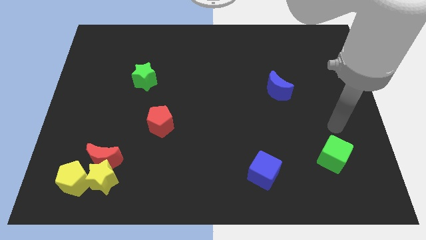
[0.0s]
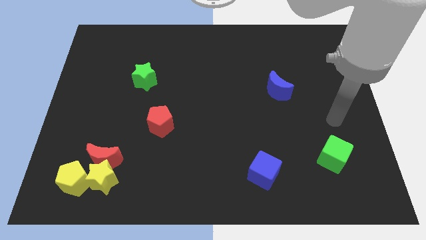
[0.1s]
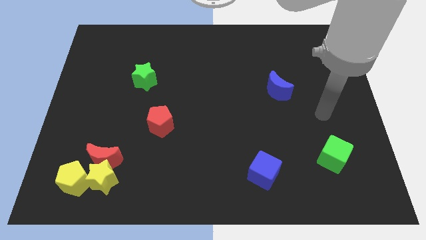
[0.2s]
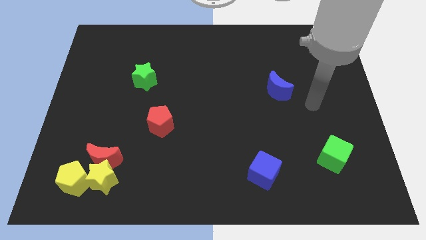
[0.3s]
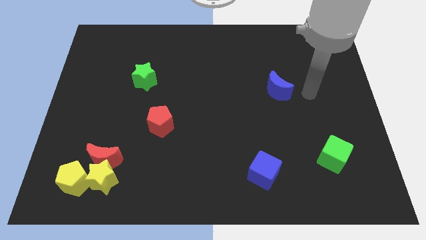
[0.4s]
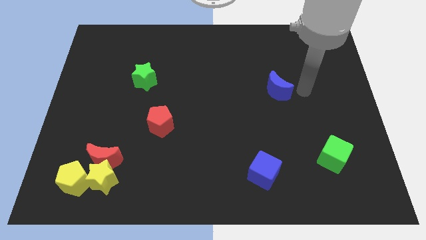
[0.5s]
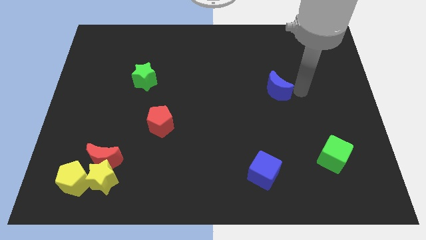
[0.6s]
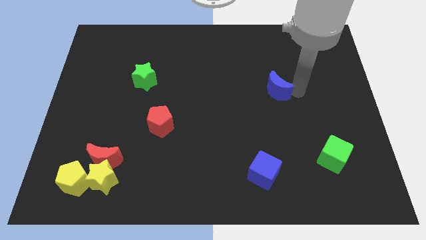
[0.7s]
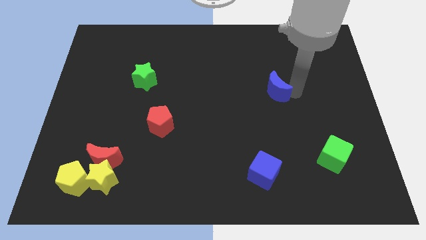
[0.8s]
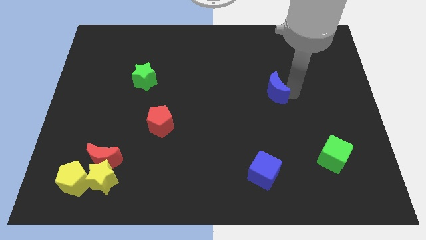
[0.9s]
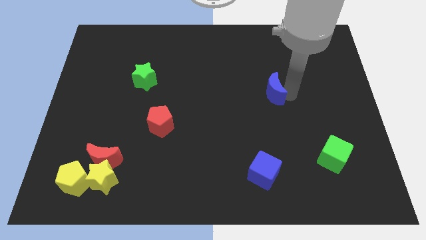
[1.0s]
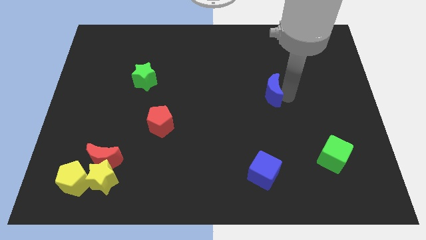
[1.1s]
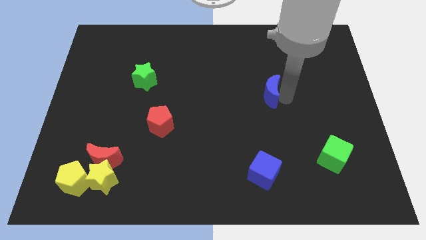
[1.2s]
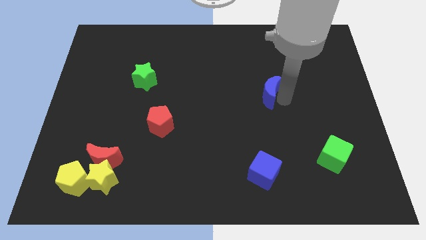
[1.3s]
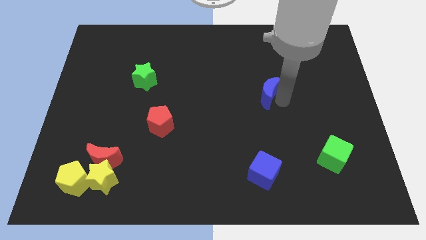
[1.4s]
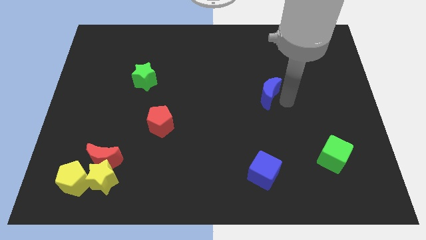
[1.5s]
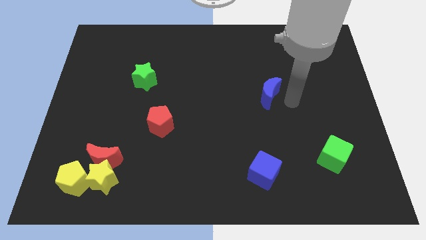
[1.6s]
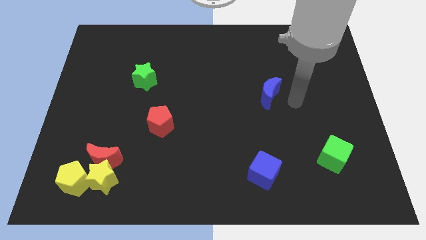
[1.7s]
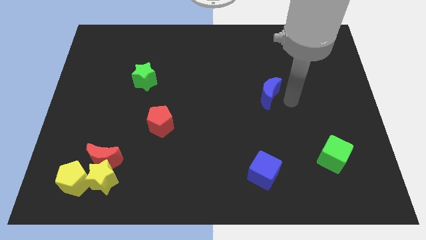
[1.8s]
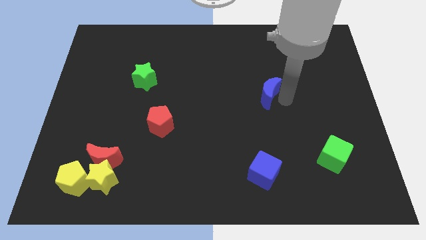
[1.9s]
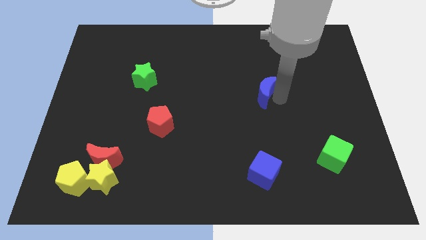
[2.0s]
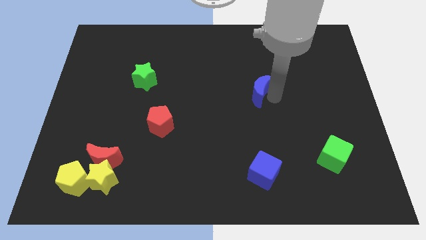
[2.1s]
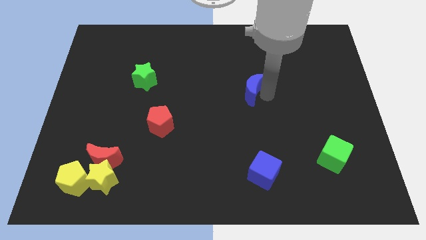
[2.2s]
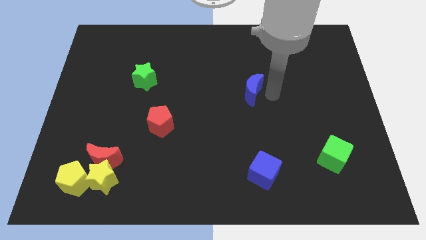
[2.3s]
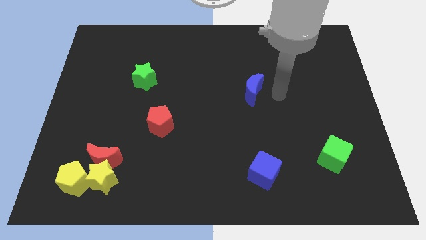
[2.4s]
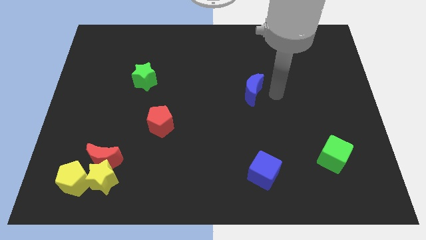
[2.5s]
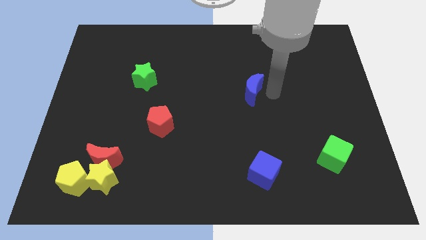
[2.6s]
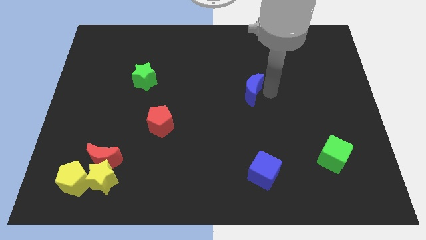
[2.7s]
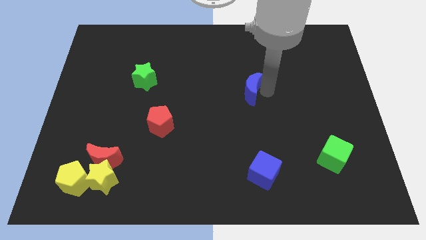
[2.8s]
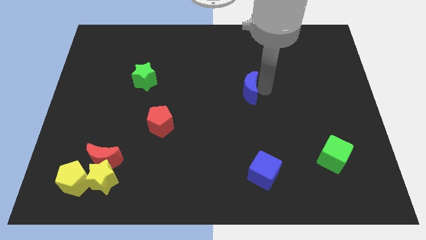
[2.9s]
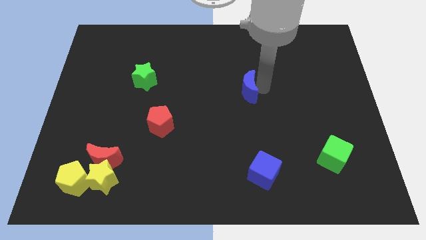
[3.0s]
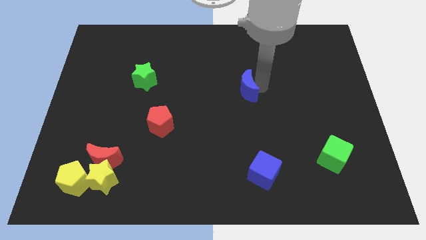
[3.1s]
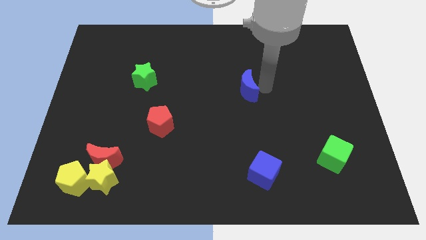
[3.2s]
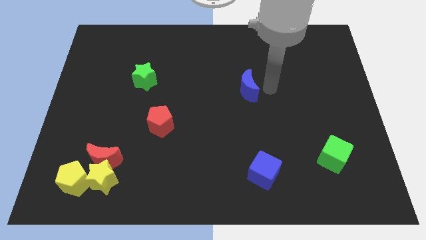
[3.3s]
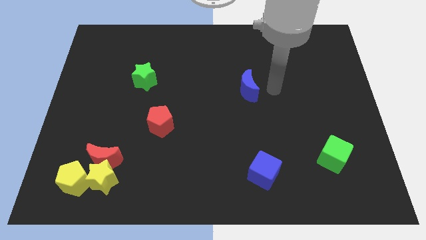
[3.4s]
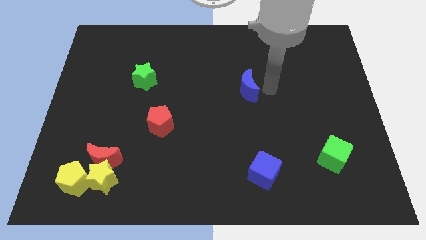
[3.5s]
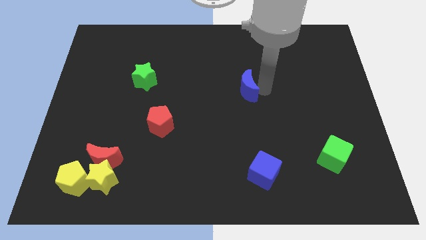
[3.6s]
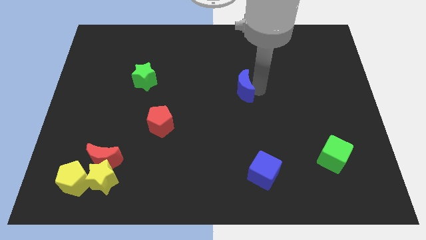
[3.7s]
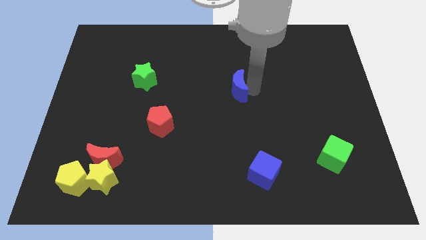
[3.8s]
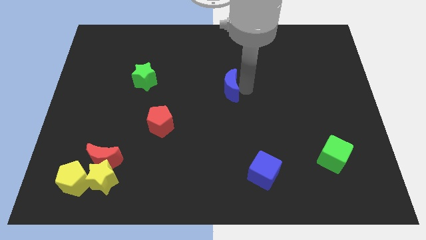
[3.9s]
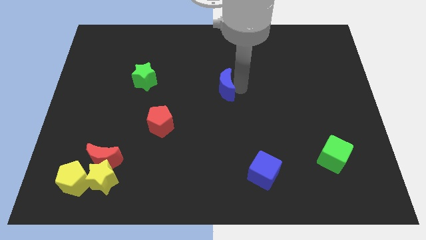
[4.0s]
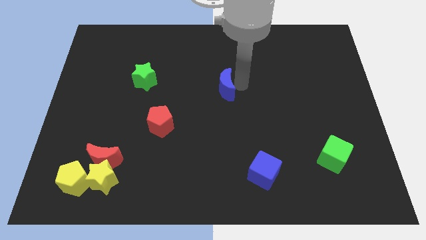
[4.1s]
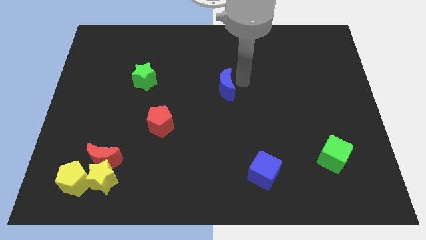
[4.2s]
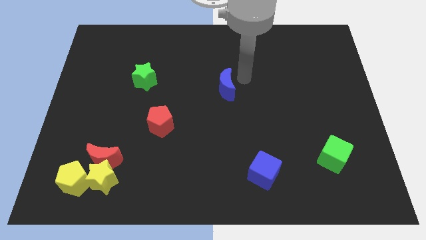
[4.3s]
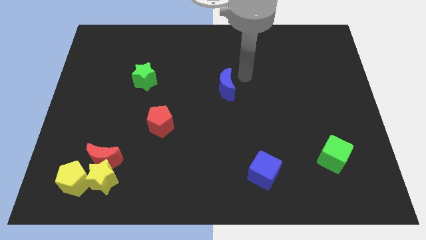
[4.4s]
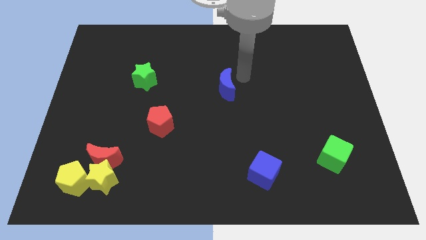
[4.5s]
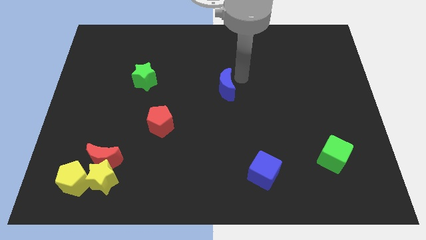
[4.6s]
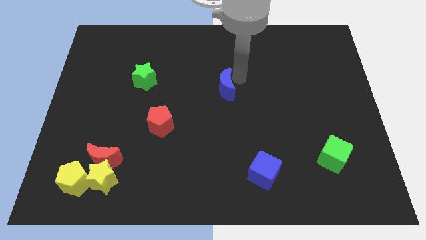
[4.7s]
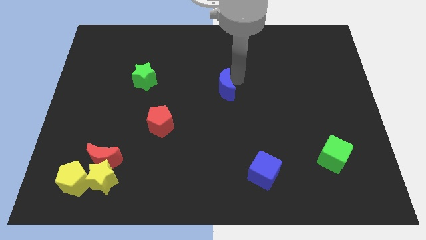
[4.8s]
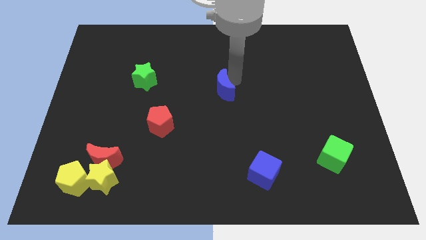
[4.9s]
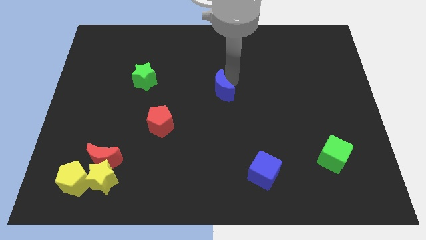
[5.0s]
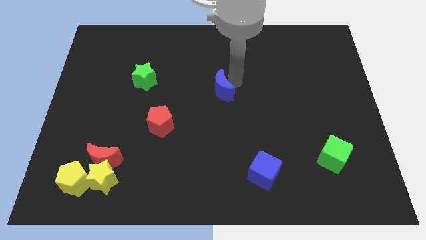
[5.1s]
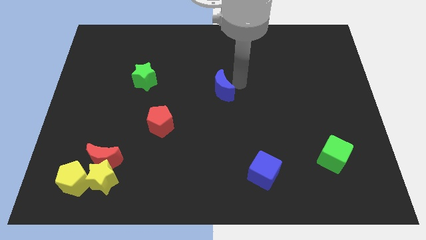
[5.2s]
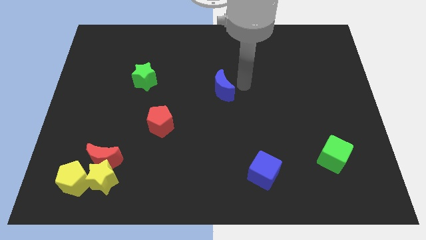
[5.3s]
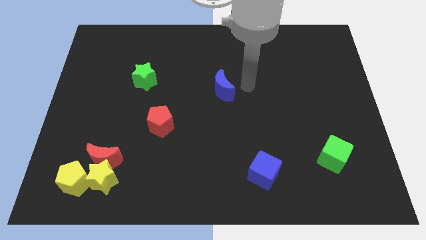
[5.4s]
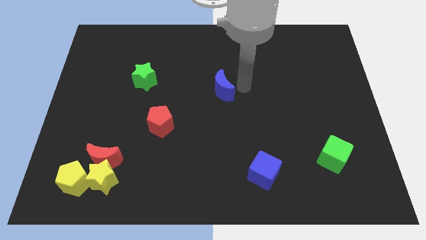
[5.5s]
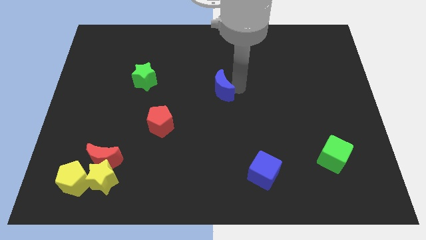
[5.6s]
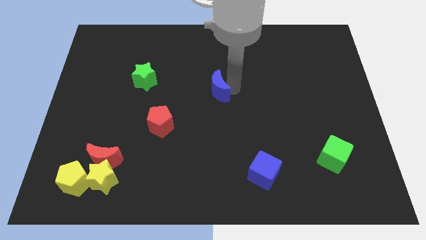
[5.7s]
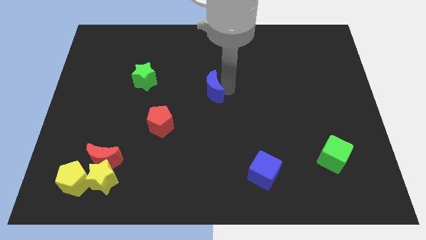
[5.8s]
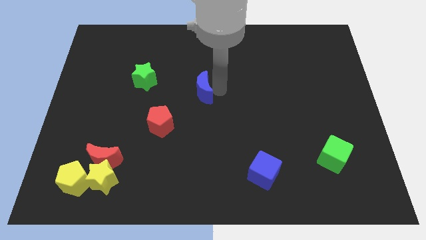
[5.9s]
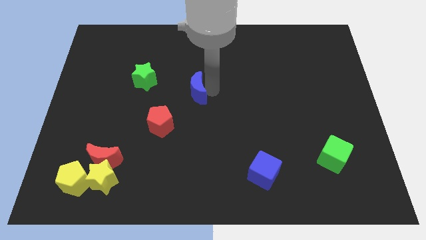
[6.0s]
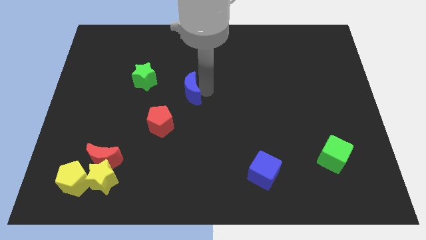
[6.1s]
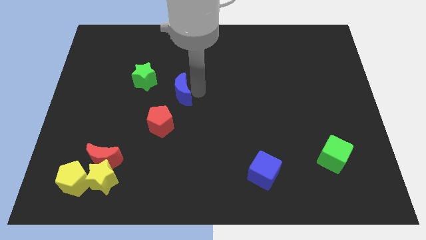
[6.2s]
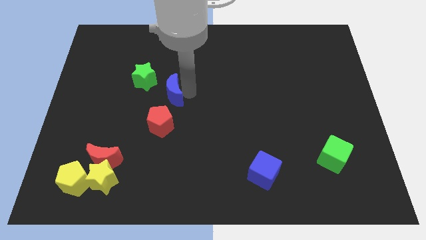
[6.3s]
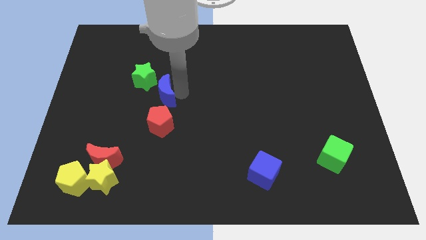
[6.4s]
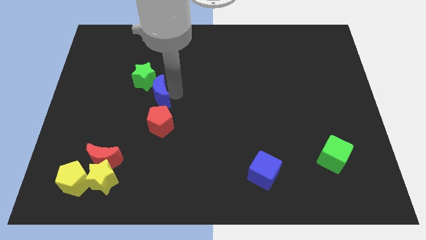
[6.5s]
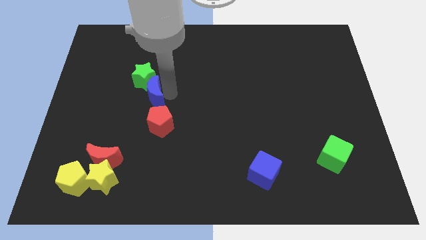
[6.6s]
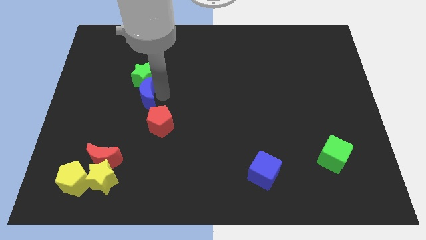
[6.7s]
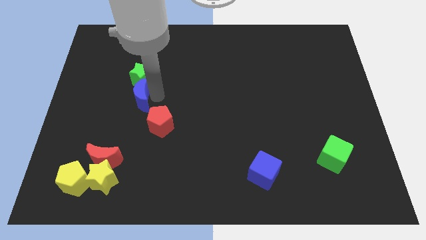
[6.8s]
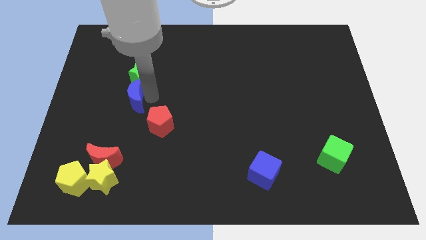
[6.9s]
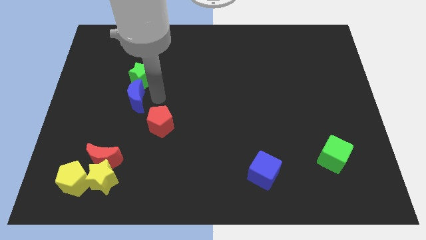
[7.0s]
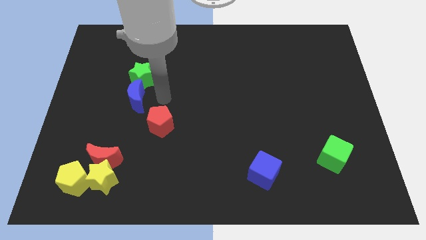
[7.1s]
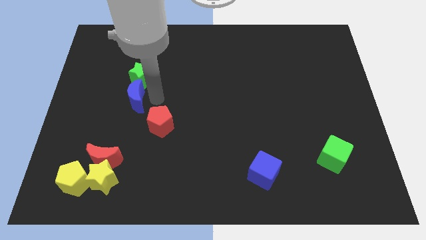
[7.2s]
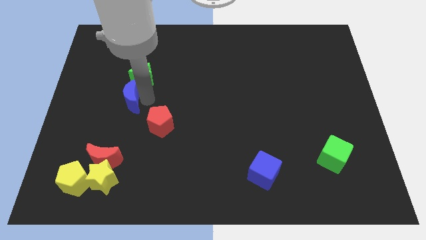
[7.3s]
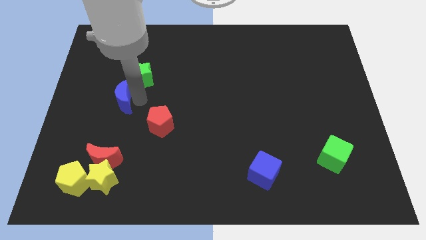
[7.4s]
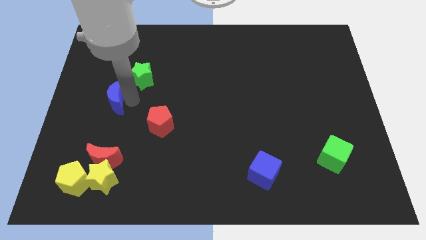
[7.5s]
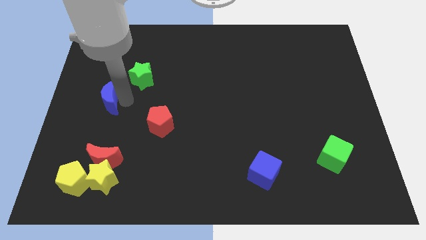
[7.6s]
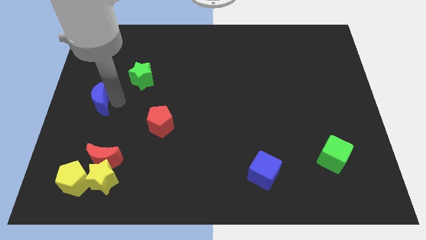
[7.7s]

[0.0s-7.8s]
move the blue moon to the left side of the board
